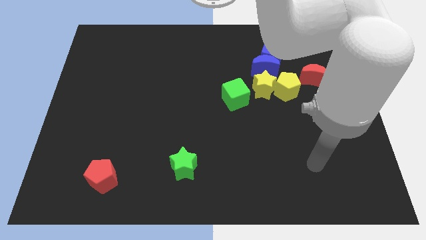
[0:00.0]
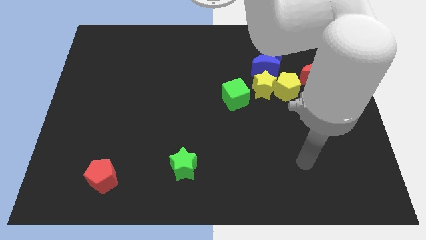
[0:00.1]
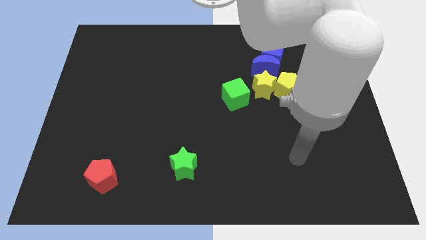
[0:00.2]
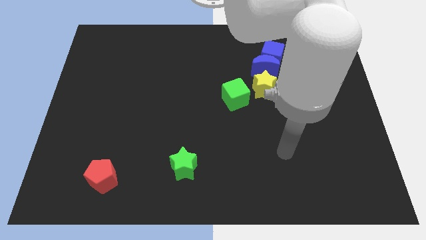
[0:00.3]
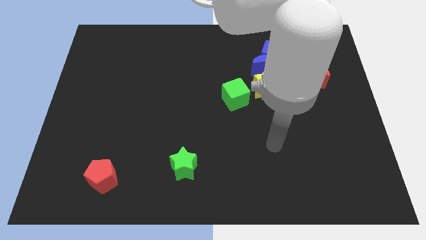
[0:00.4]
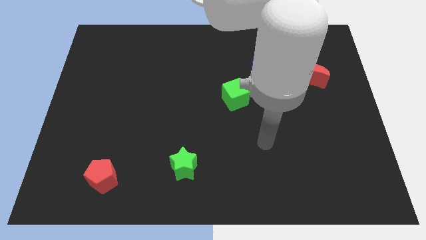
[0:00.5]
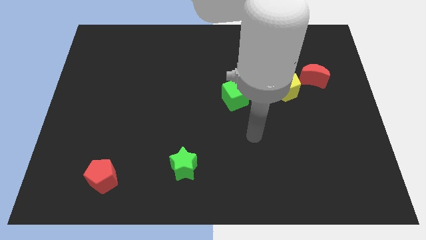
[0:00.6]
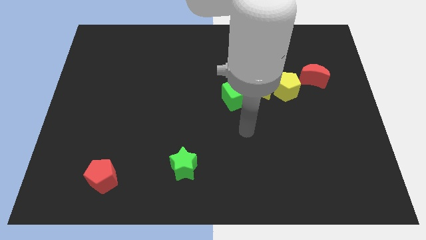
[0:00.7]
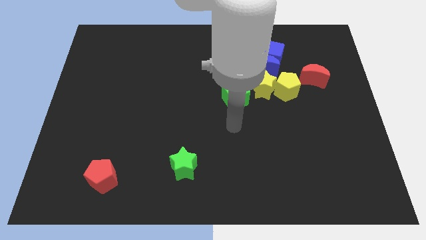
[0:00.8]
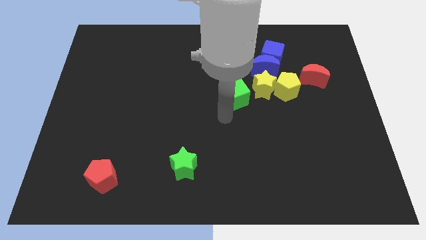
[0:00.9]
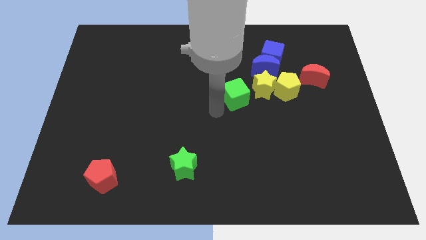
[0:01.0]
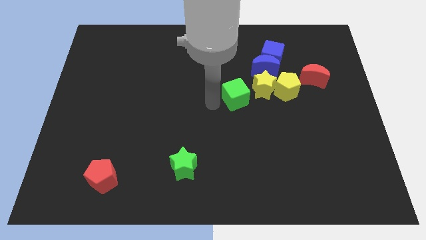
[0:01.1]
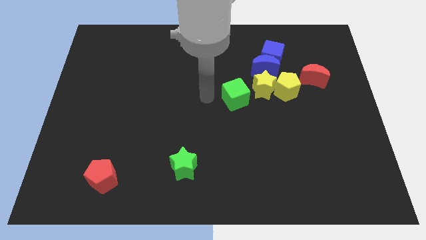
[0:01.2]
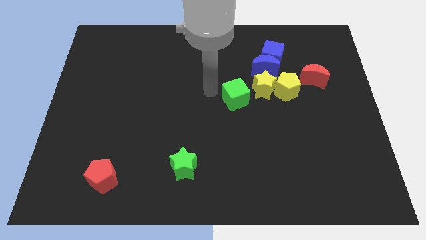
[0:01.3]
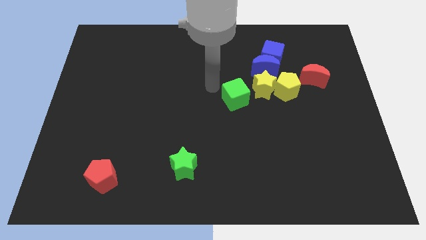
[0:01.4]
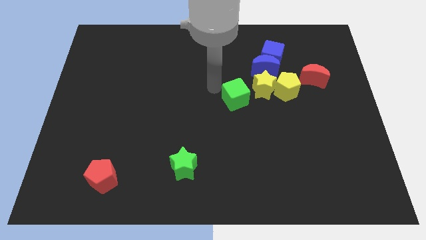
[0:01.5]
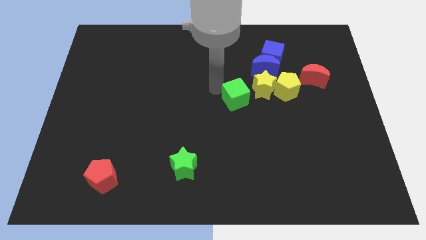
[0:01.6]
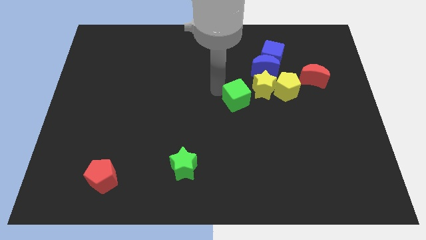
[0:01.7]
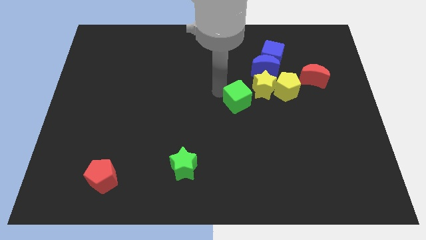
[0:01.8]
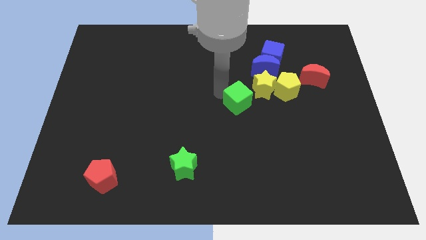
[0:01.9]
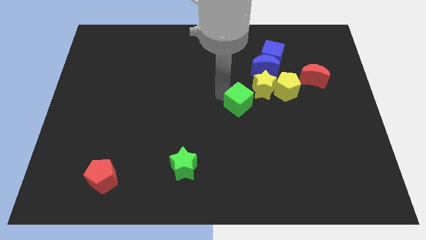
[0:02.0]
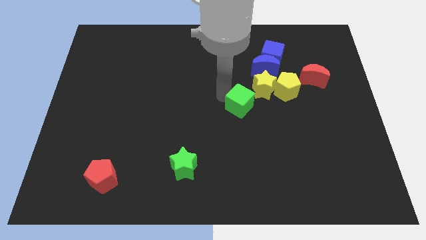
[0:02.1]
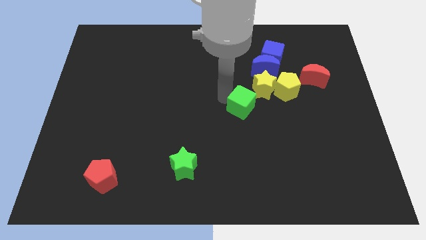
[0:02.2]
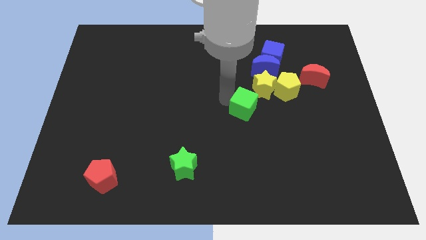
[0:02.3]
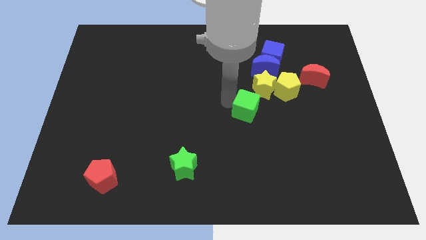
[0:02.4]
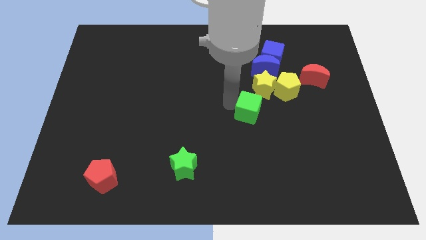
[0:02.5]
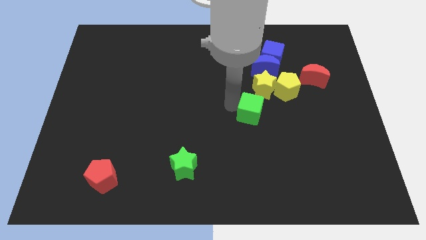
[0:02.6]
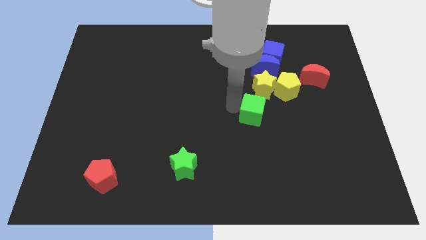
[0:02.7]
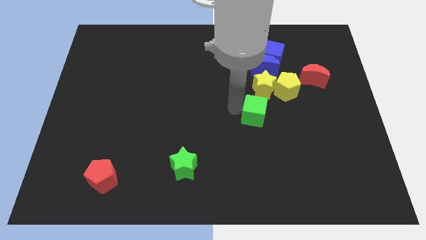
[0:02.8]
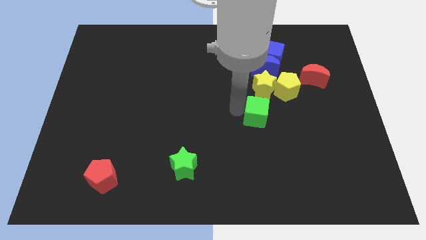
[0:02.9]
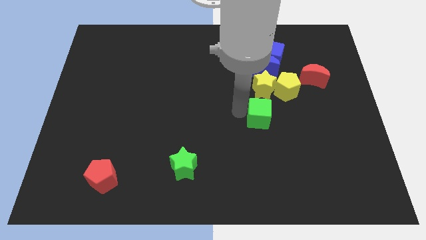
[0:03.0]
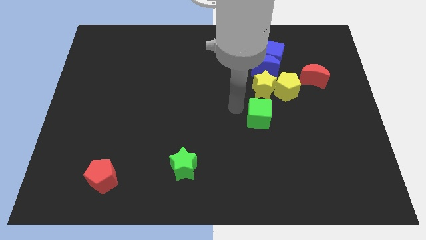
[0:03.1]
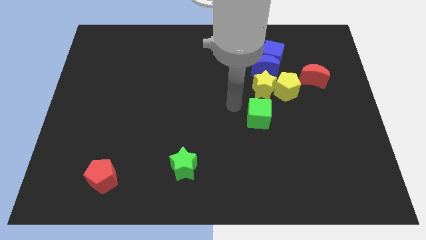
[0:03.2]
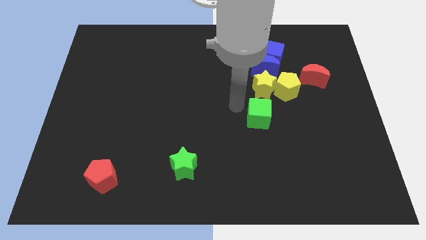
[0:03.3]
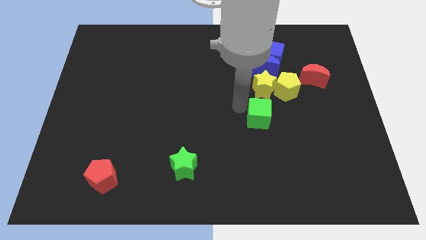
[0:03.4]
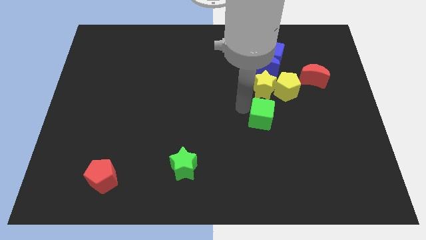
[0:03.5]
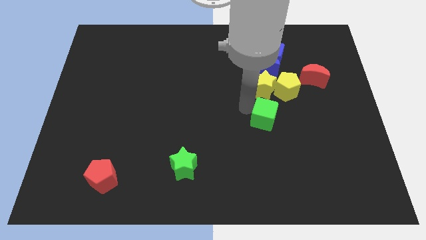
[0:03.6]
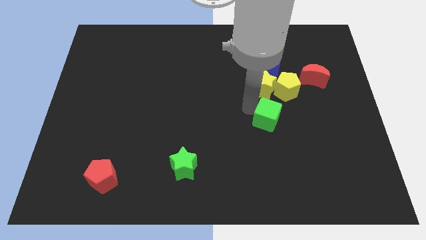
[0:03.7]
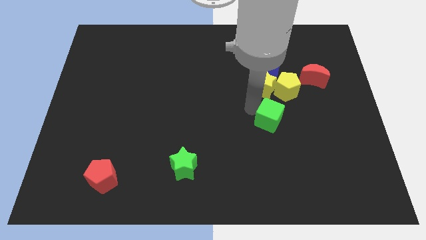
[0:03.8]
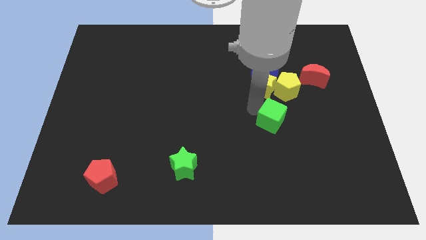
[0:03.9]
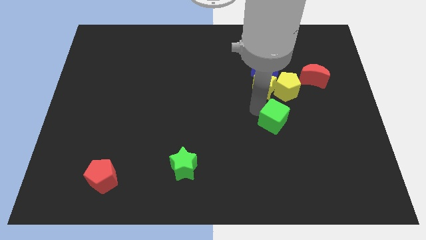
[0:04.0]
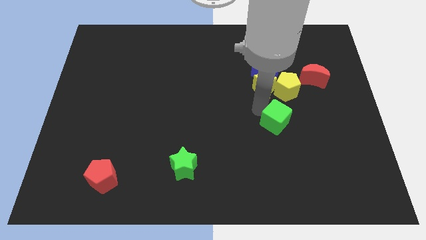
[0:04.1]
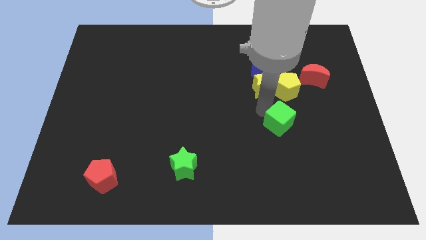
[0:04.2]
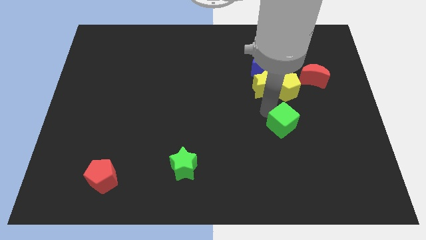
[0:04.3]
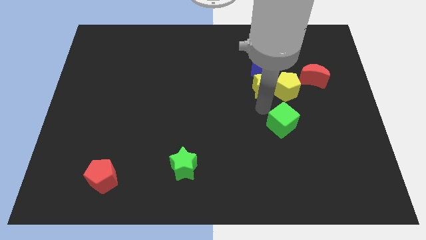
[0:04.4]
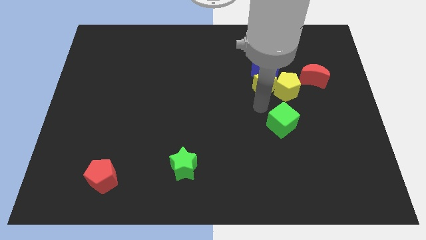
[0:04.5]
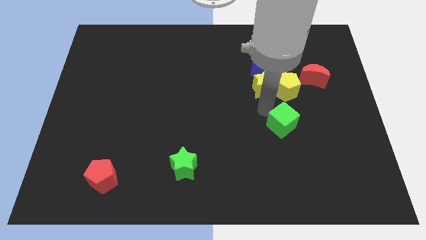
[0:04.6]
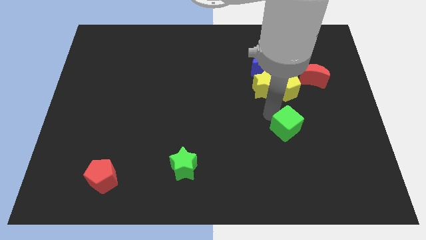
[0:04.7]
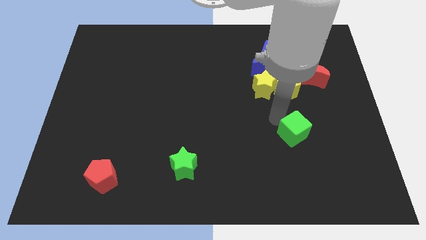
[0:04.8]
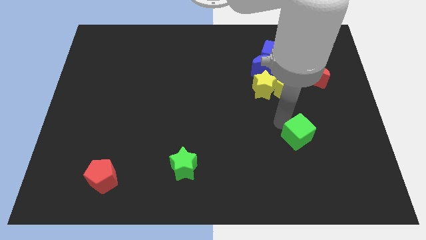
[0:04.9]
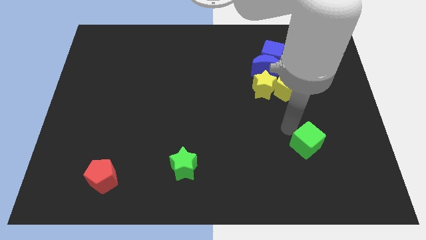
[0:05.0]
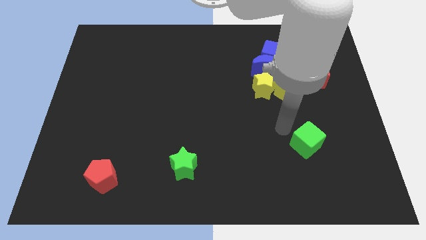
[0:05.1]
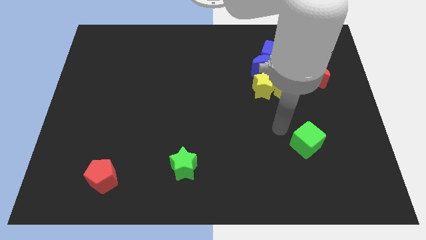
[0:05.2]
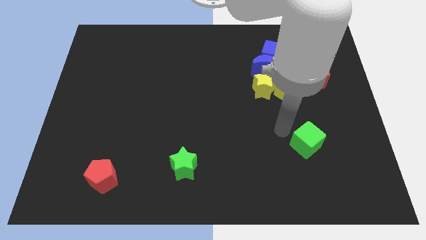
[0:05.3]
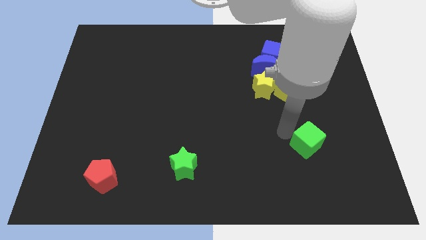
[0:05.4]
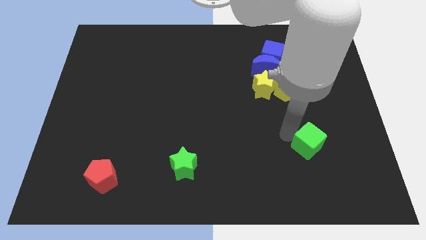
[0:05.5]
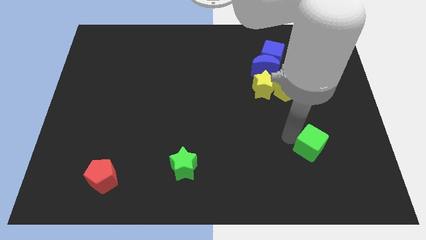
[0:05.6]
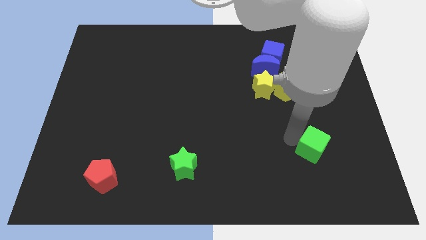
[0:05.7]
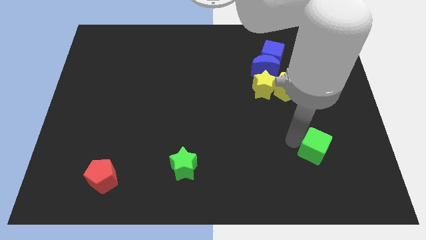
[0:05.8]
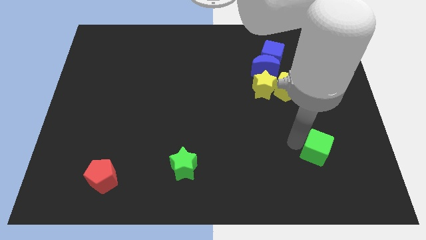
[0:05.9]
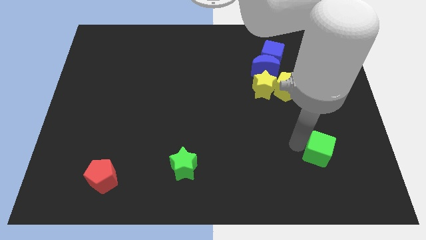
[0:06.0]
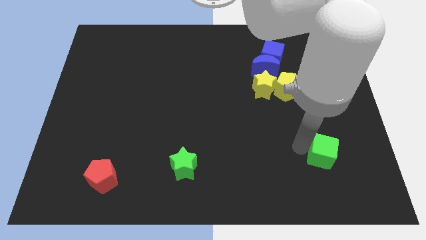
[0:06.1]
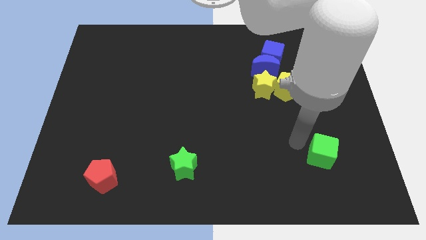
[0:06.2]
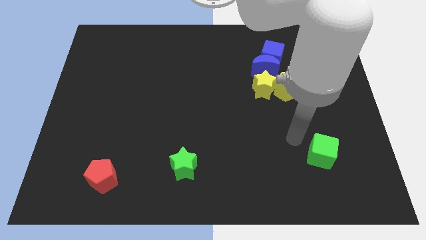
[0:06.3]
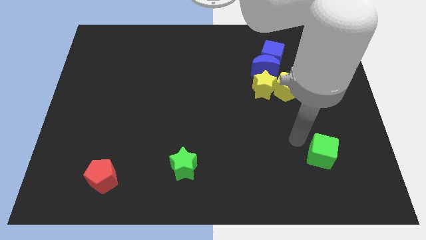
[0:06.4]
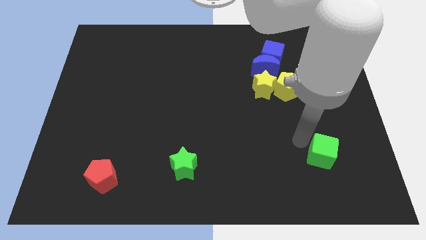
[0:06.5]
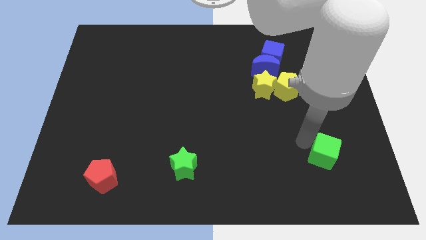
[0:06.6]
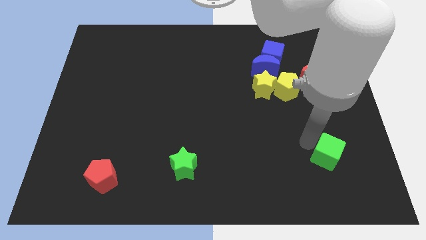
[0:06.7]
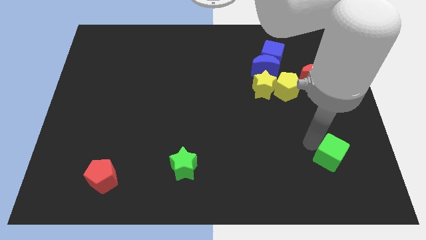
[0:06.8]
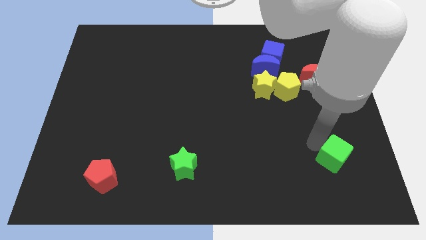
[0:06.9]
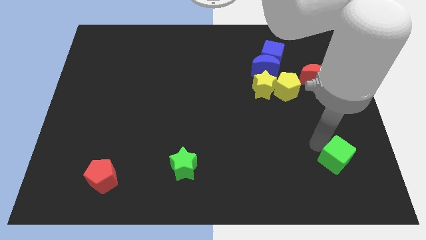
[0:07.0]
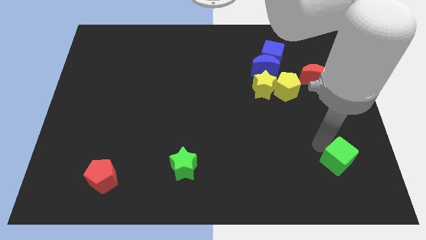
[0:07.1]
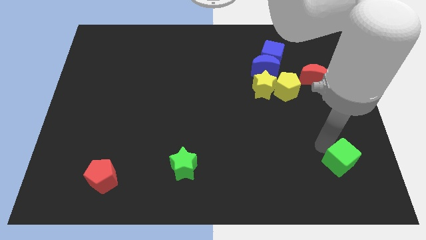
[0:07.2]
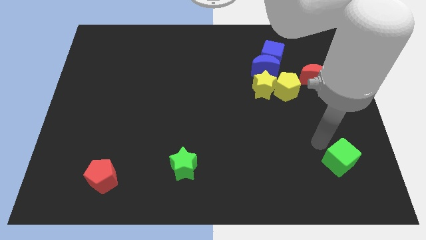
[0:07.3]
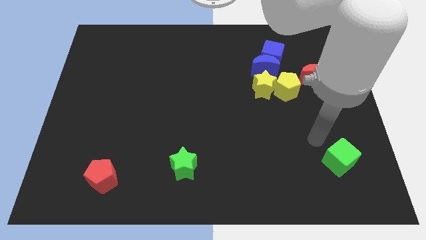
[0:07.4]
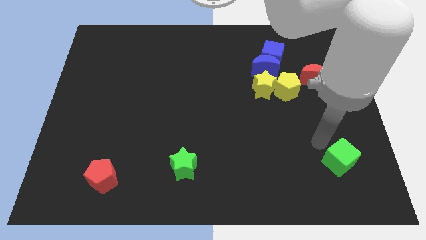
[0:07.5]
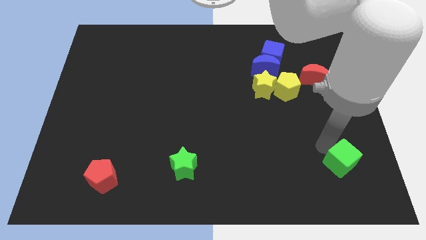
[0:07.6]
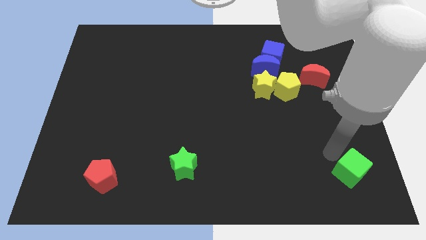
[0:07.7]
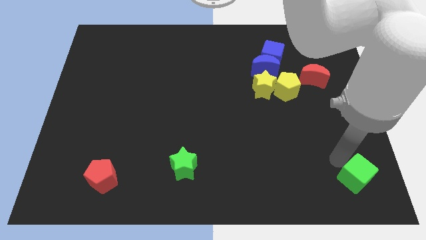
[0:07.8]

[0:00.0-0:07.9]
slide the green cube to the bottom right
